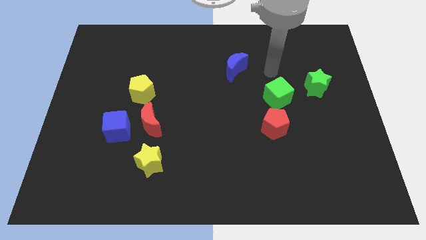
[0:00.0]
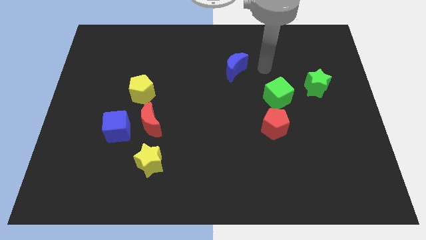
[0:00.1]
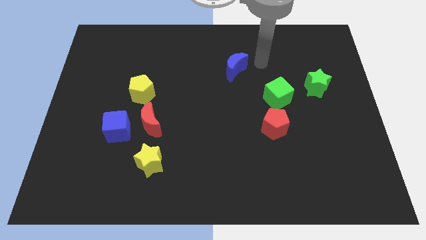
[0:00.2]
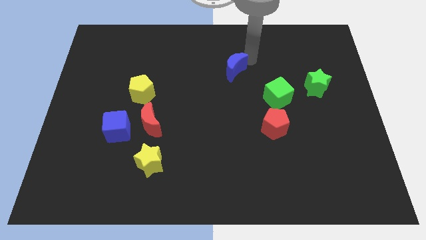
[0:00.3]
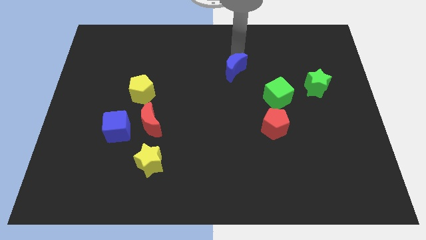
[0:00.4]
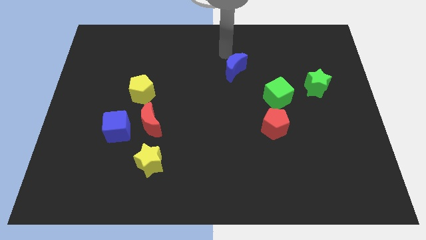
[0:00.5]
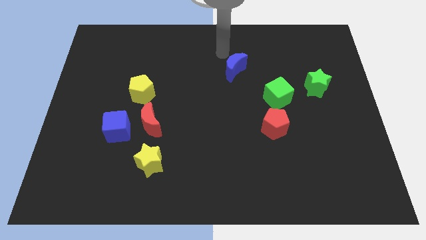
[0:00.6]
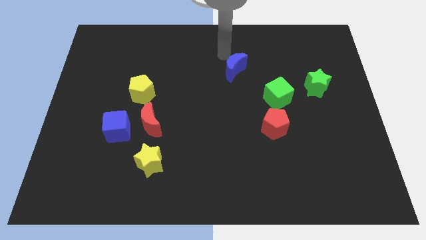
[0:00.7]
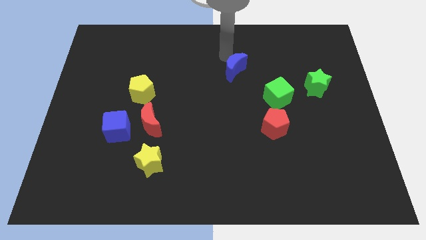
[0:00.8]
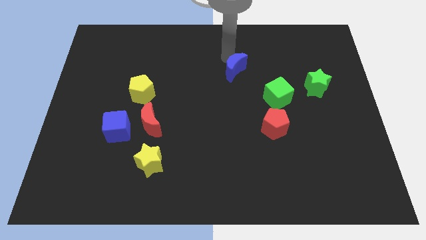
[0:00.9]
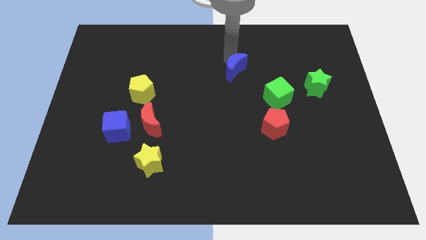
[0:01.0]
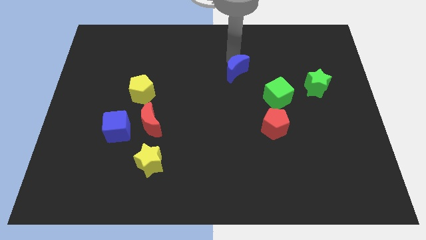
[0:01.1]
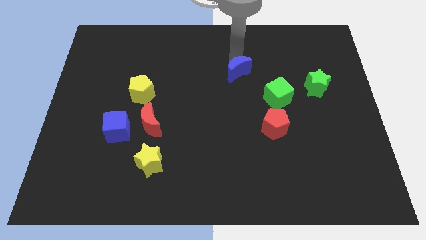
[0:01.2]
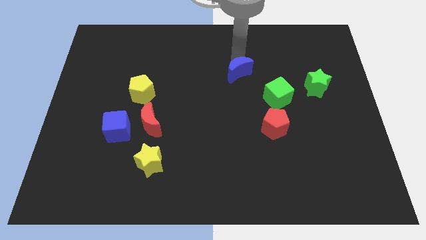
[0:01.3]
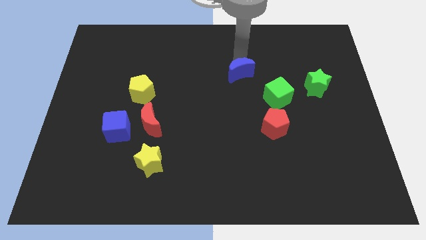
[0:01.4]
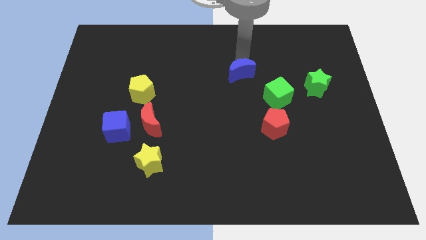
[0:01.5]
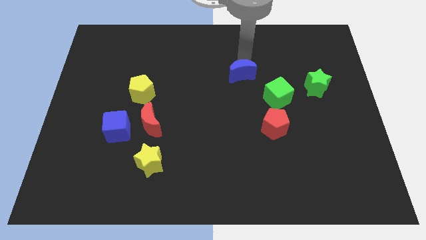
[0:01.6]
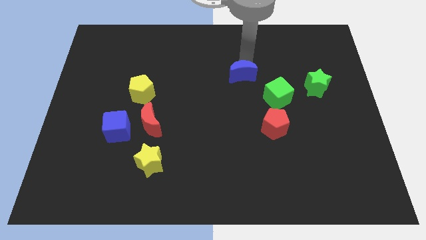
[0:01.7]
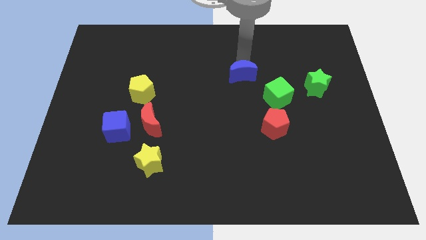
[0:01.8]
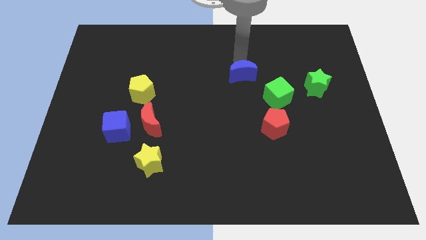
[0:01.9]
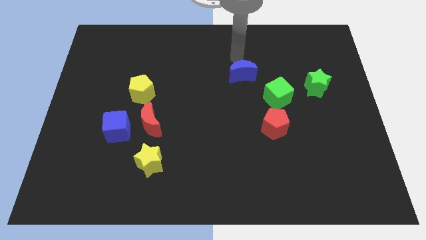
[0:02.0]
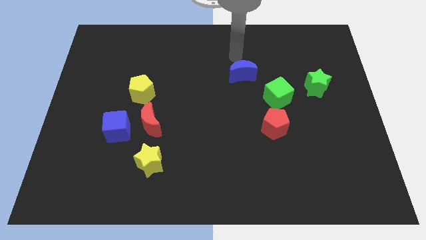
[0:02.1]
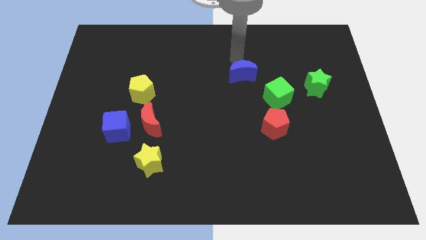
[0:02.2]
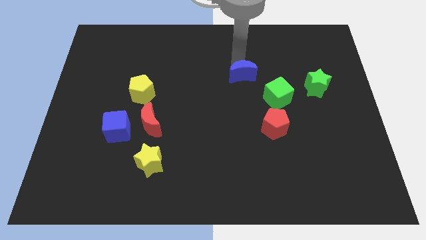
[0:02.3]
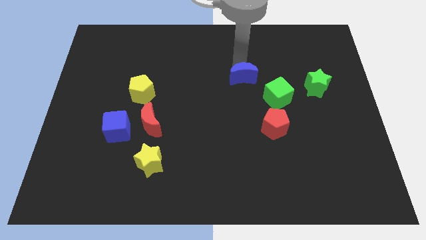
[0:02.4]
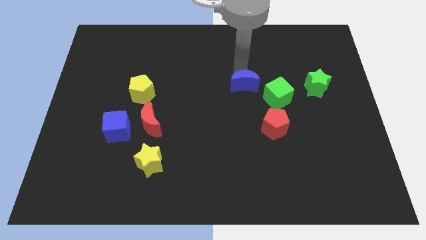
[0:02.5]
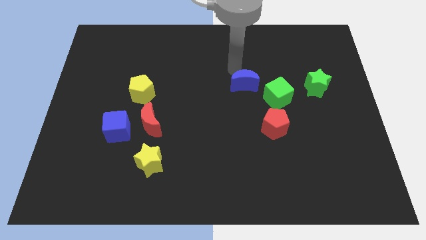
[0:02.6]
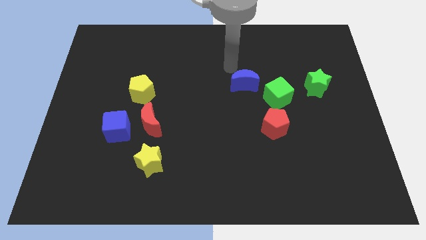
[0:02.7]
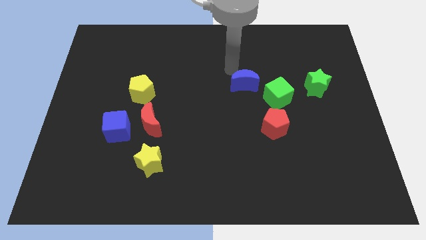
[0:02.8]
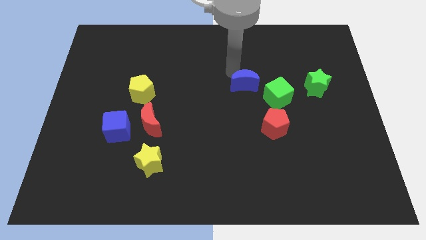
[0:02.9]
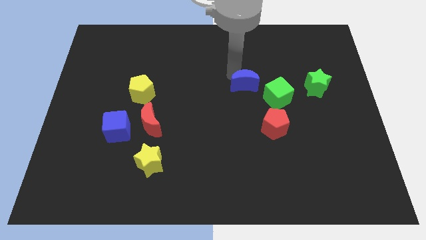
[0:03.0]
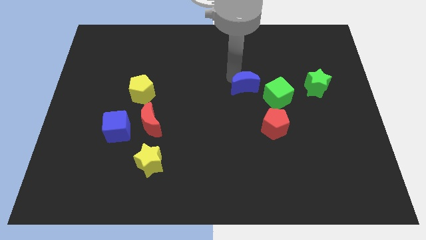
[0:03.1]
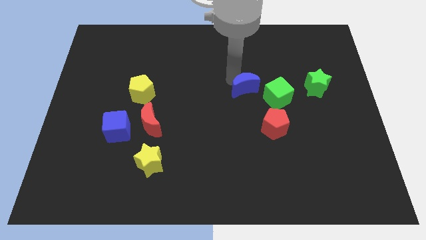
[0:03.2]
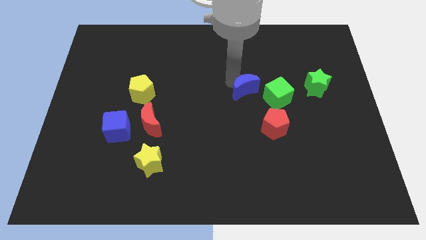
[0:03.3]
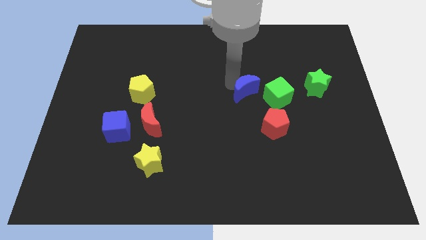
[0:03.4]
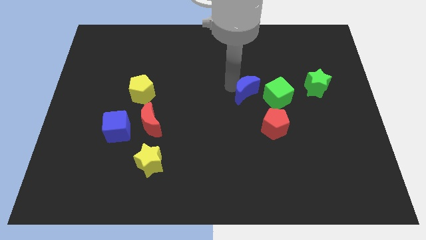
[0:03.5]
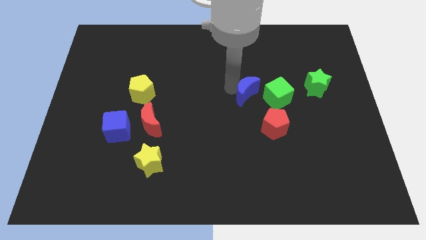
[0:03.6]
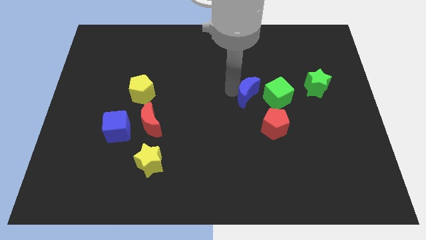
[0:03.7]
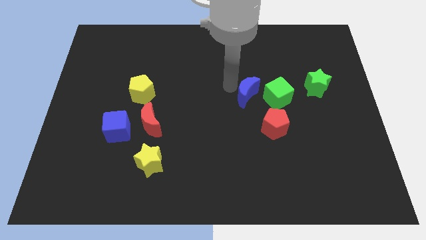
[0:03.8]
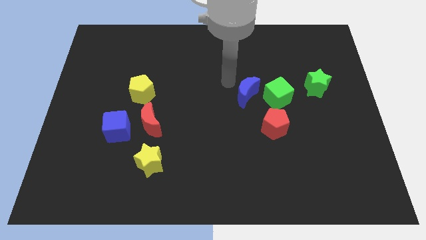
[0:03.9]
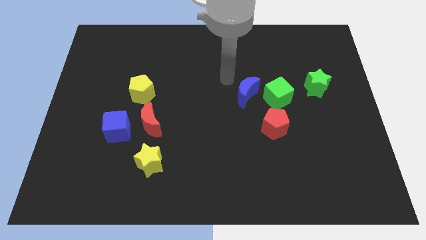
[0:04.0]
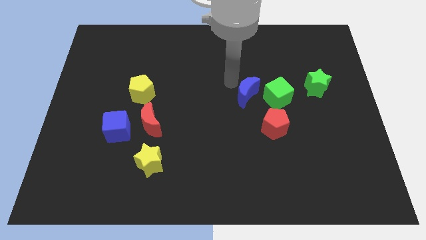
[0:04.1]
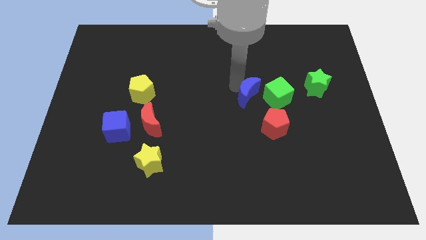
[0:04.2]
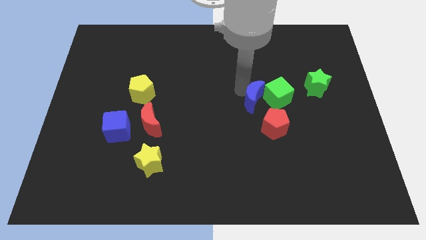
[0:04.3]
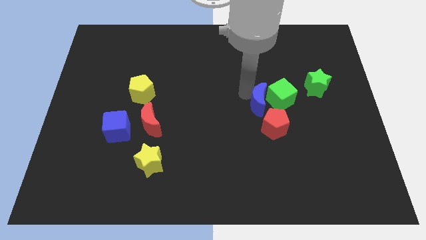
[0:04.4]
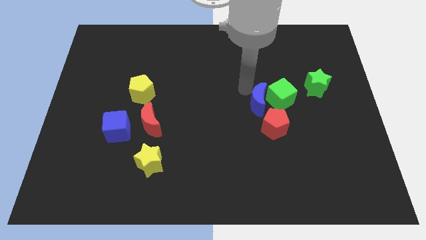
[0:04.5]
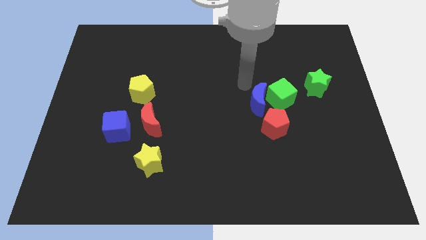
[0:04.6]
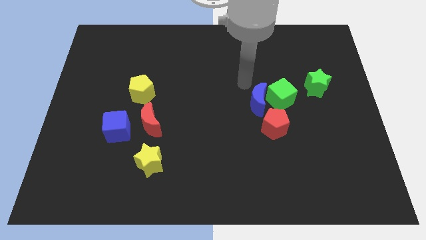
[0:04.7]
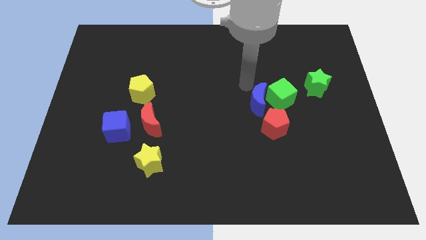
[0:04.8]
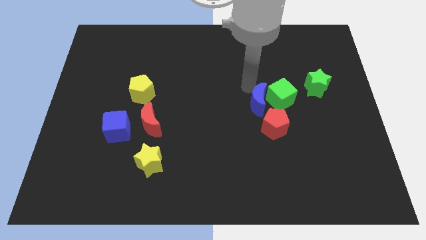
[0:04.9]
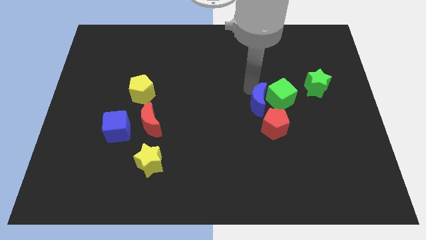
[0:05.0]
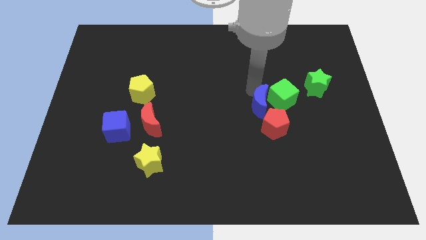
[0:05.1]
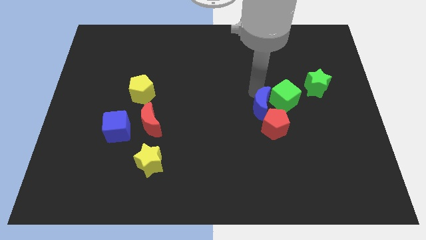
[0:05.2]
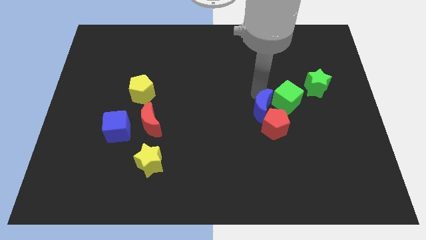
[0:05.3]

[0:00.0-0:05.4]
push the blue moon to the red pentagon

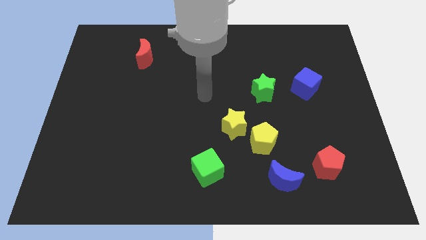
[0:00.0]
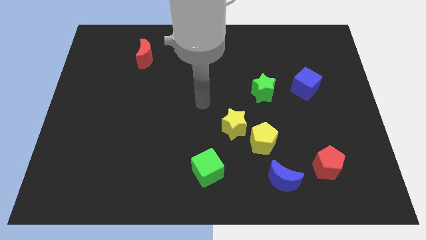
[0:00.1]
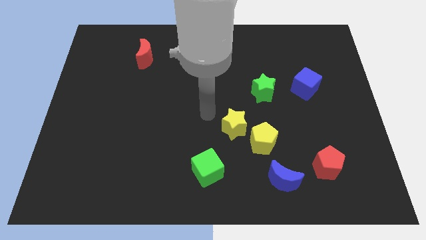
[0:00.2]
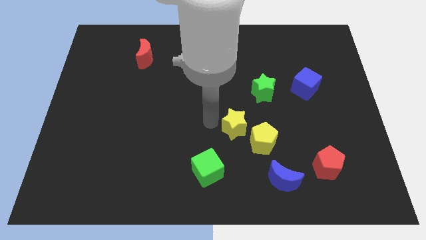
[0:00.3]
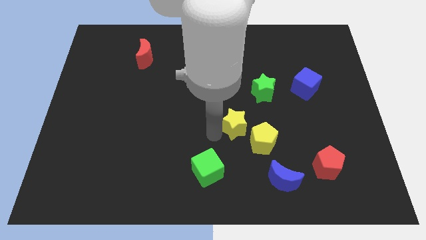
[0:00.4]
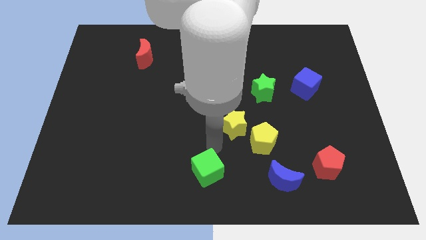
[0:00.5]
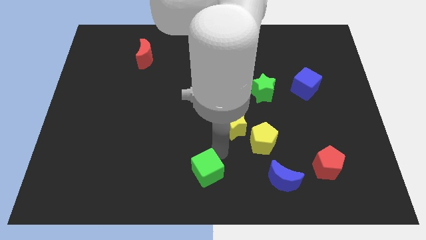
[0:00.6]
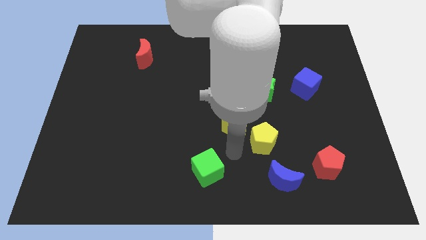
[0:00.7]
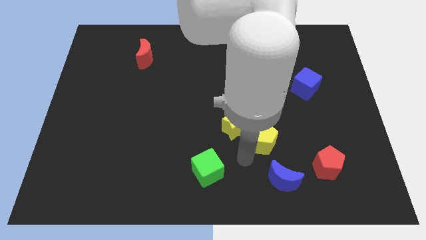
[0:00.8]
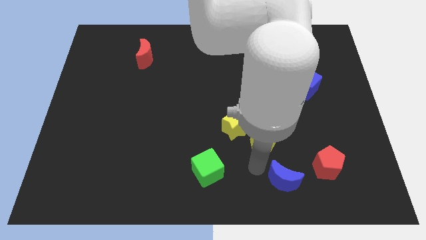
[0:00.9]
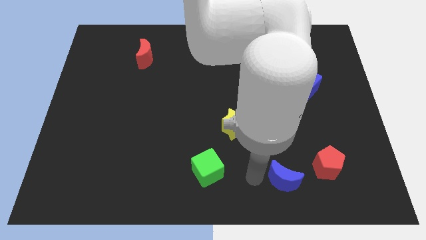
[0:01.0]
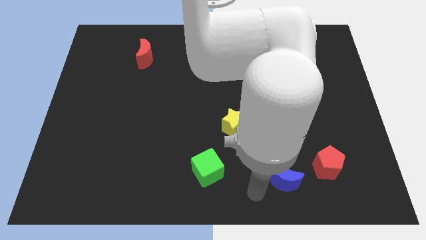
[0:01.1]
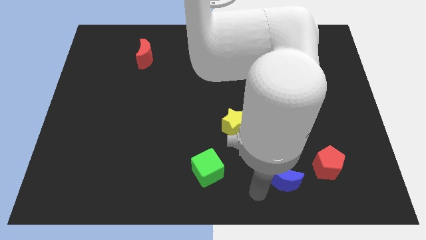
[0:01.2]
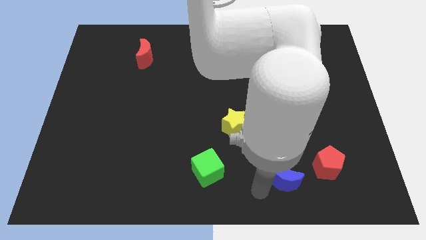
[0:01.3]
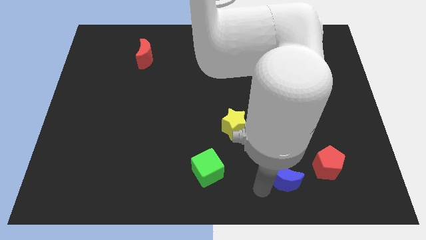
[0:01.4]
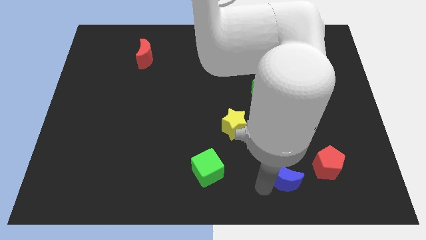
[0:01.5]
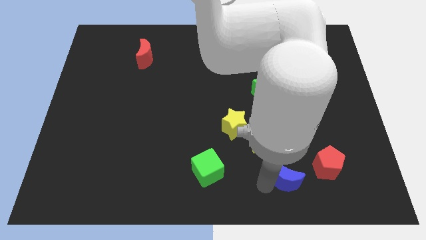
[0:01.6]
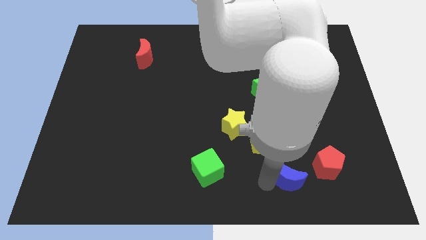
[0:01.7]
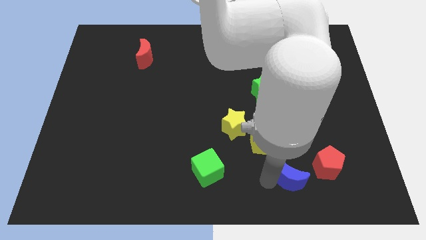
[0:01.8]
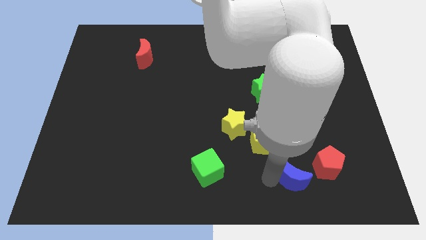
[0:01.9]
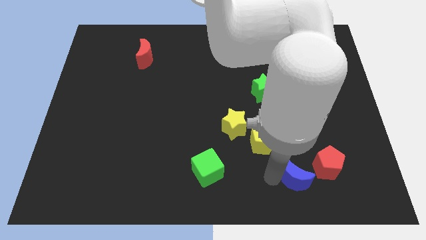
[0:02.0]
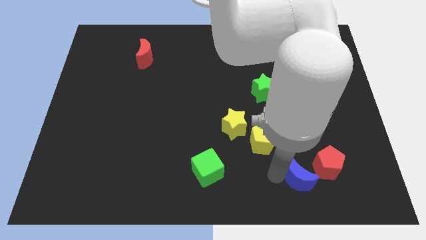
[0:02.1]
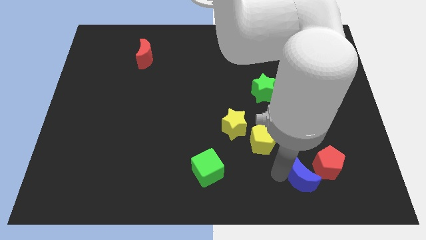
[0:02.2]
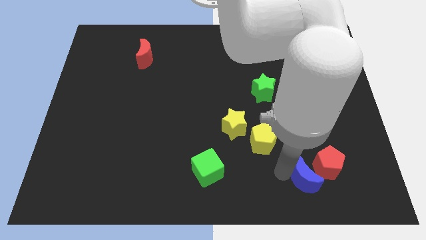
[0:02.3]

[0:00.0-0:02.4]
push the blue moon towards the red pentagon
